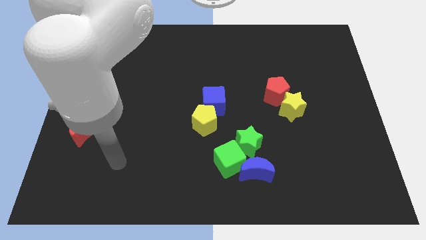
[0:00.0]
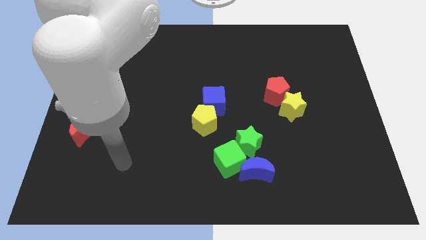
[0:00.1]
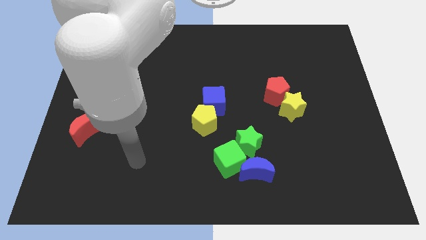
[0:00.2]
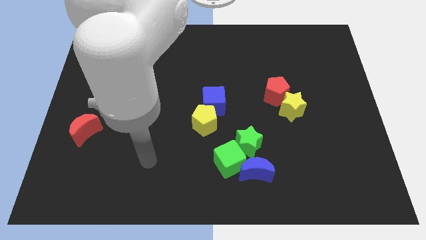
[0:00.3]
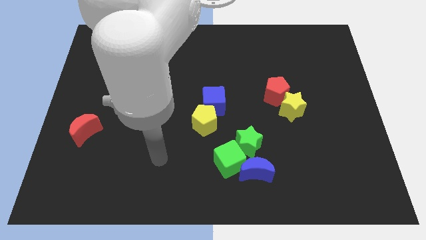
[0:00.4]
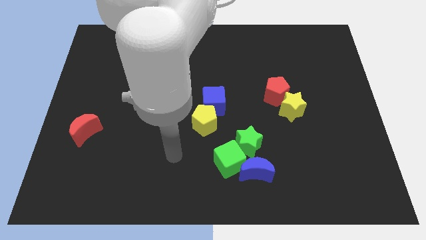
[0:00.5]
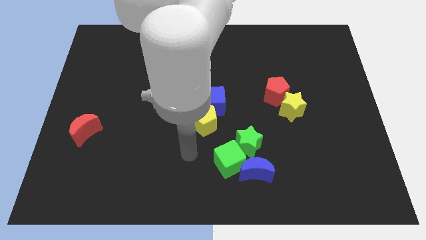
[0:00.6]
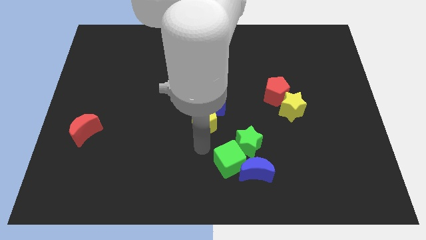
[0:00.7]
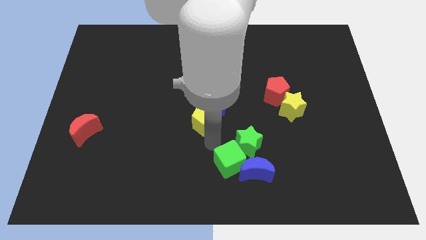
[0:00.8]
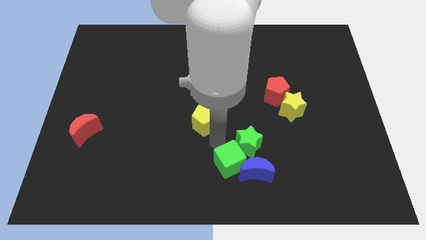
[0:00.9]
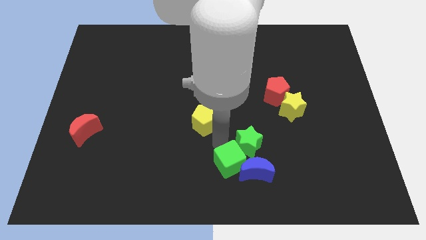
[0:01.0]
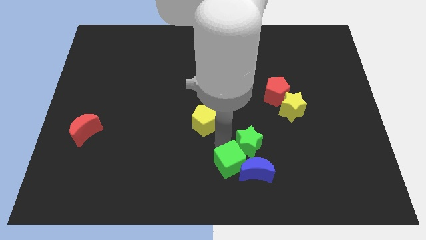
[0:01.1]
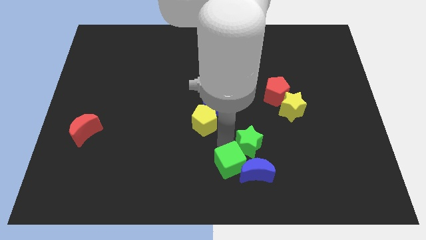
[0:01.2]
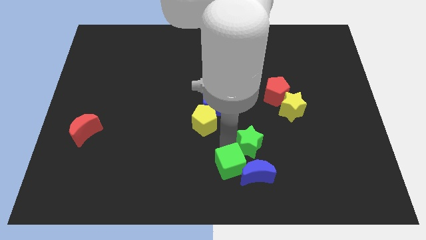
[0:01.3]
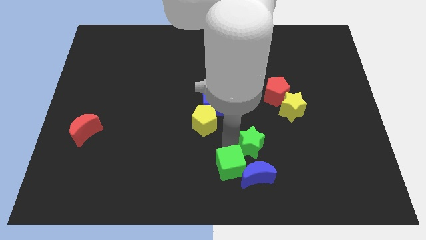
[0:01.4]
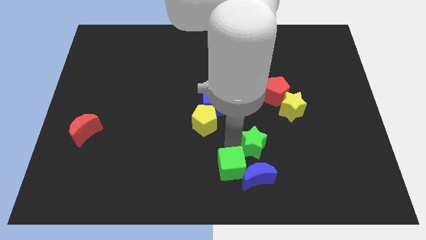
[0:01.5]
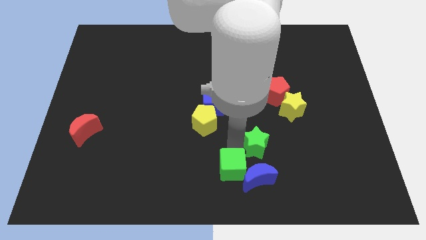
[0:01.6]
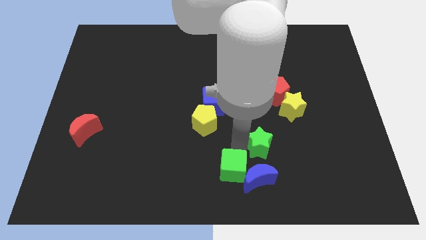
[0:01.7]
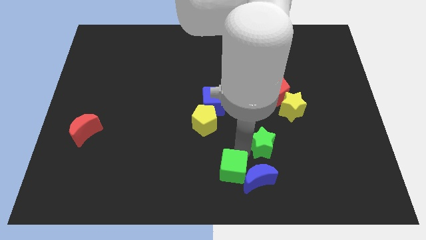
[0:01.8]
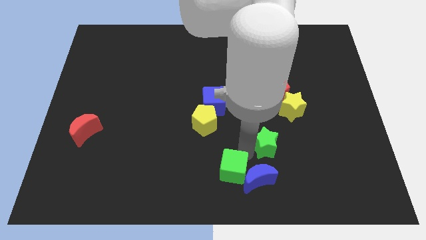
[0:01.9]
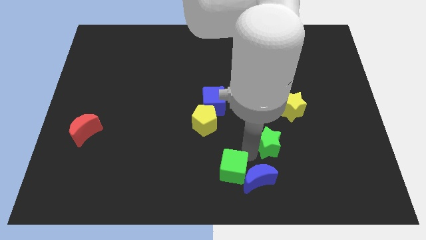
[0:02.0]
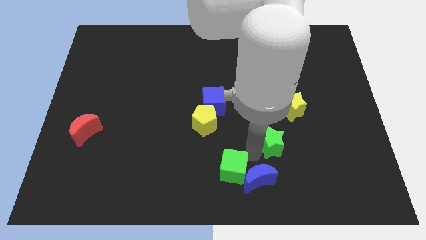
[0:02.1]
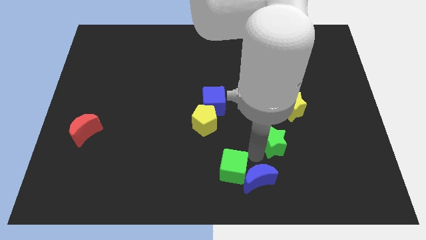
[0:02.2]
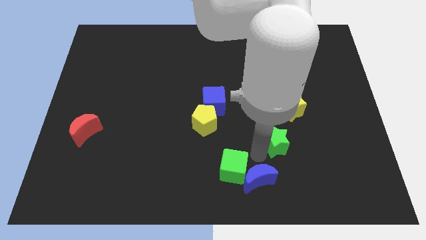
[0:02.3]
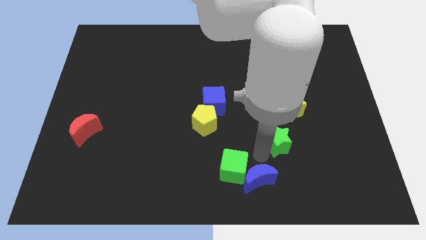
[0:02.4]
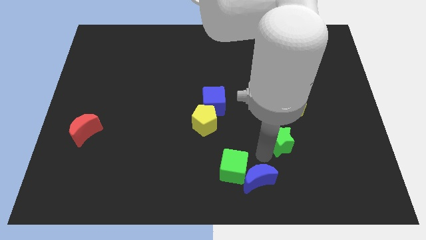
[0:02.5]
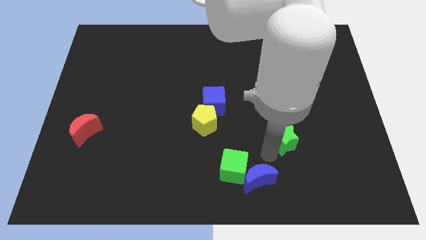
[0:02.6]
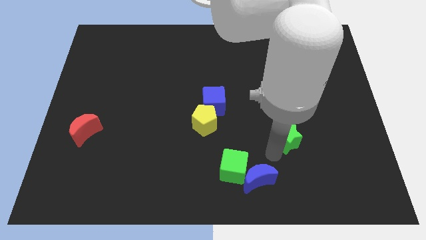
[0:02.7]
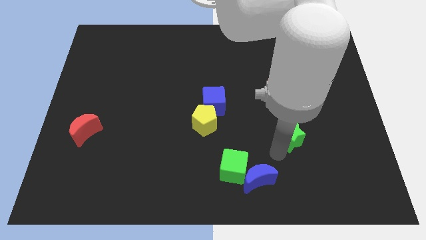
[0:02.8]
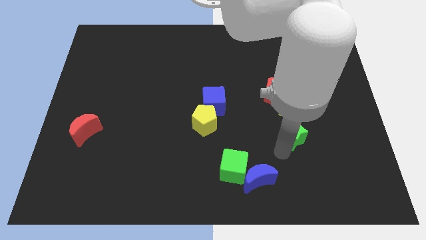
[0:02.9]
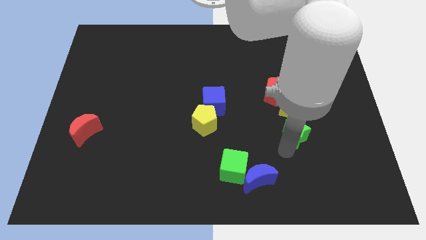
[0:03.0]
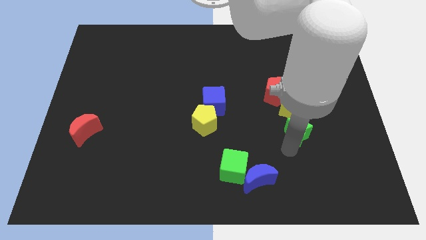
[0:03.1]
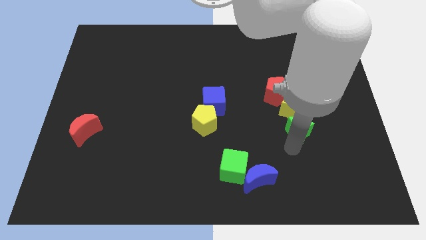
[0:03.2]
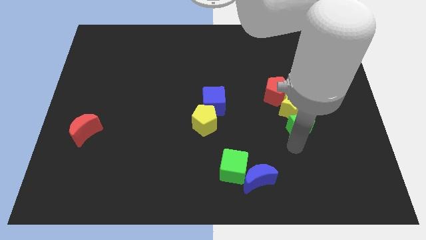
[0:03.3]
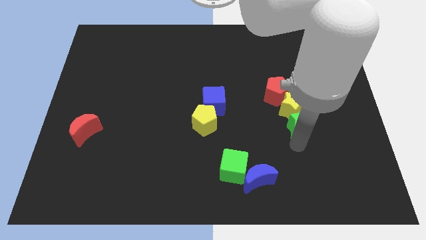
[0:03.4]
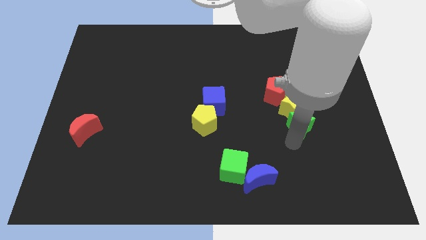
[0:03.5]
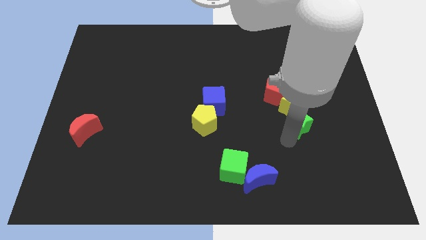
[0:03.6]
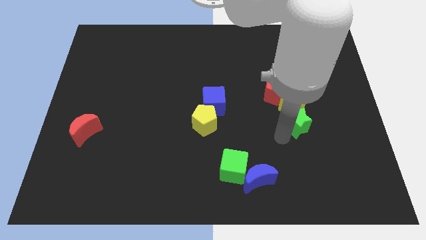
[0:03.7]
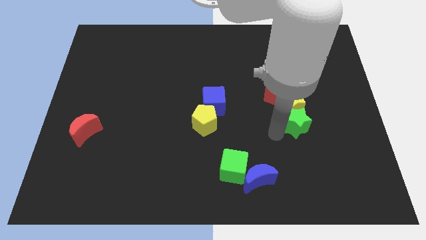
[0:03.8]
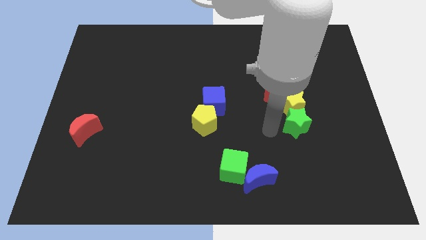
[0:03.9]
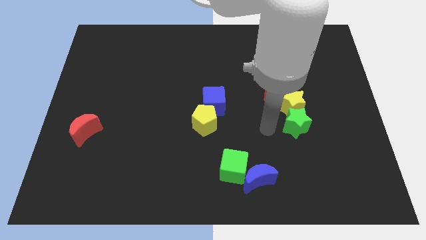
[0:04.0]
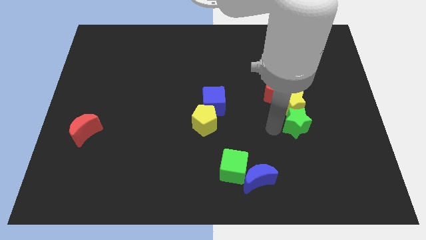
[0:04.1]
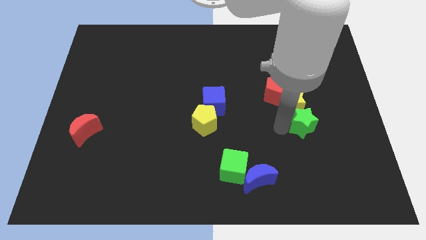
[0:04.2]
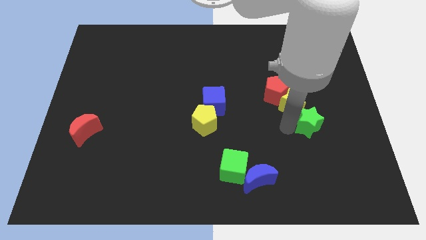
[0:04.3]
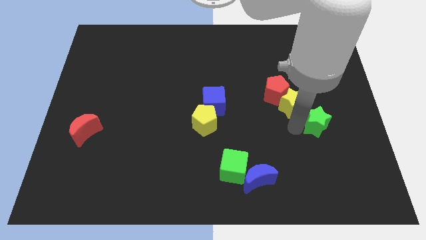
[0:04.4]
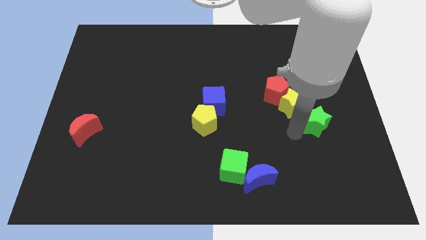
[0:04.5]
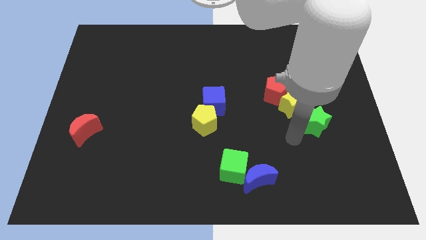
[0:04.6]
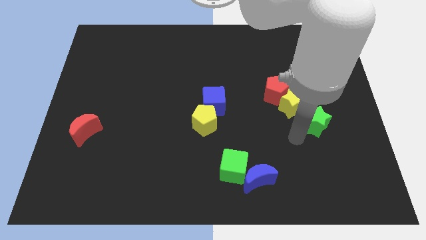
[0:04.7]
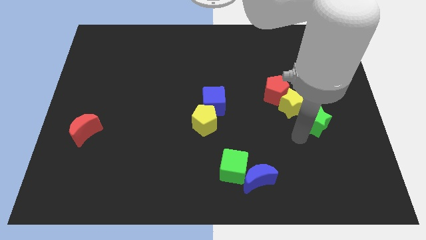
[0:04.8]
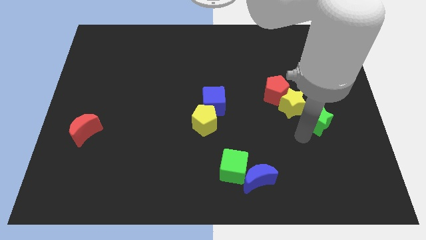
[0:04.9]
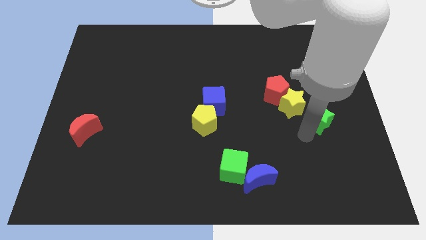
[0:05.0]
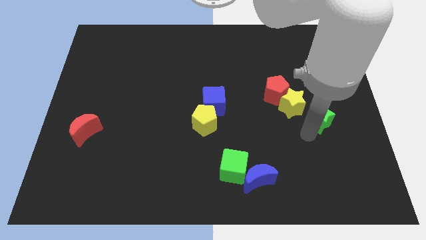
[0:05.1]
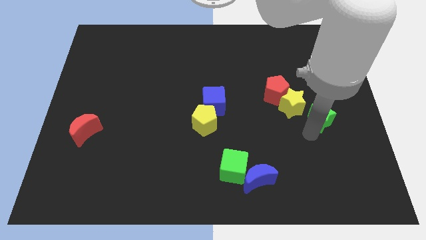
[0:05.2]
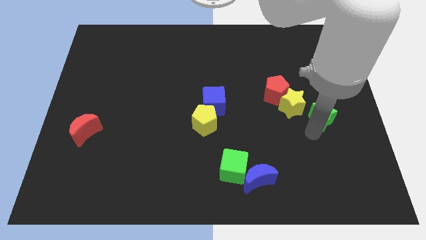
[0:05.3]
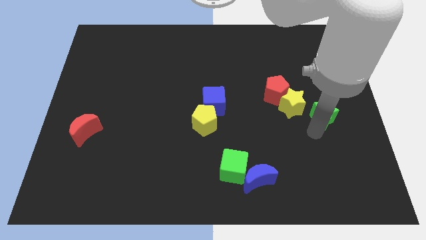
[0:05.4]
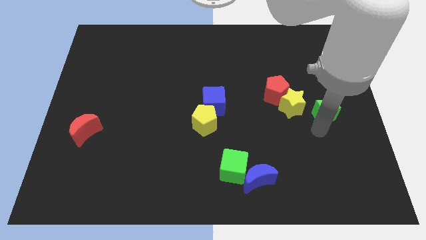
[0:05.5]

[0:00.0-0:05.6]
slide the green star to the right side of the board
